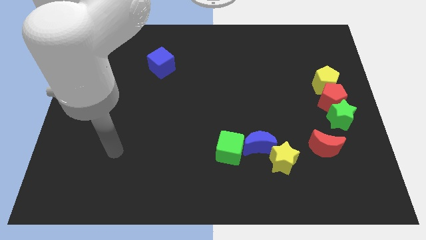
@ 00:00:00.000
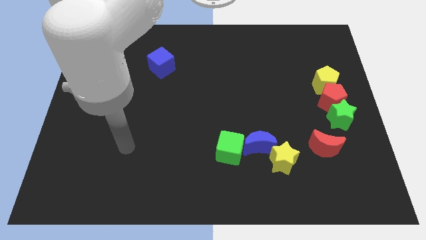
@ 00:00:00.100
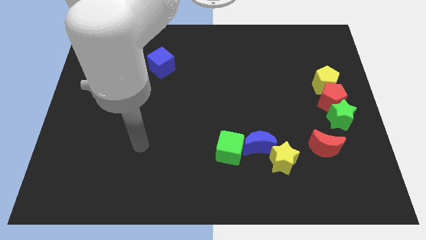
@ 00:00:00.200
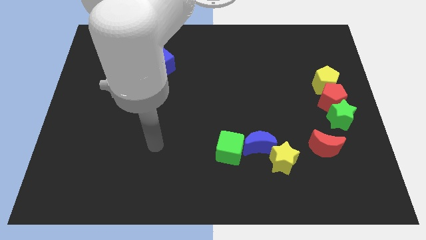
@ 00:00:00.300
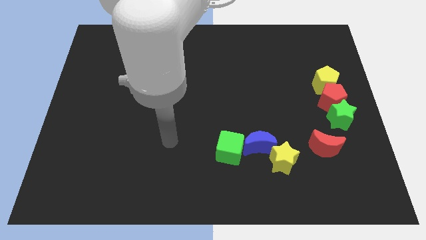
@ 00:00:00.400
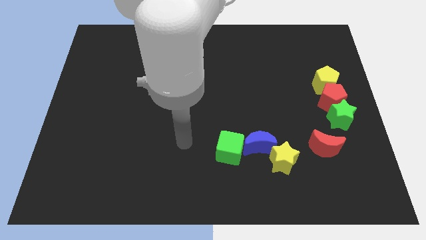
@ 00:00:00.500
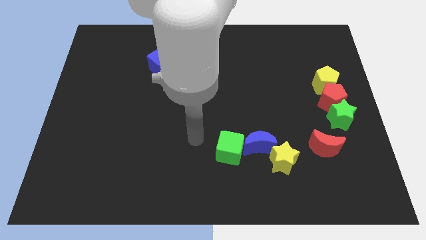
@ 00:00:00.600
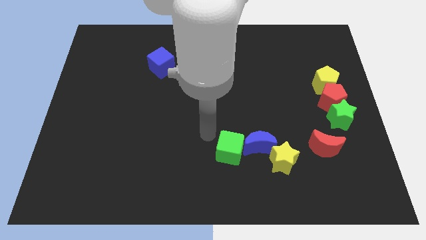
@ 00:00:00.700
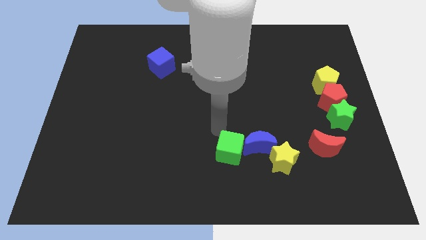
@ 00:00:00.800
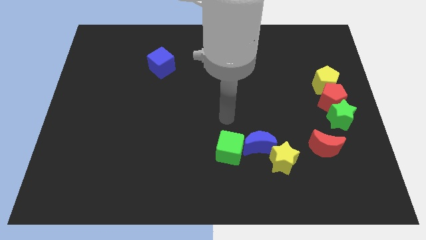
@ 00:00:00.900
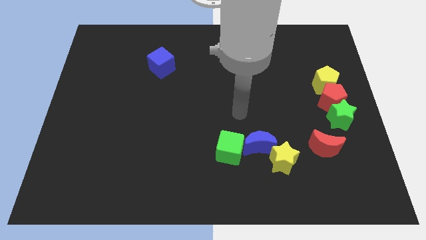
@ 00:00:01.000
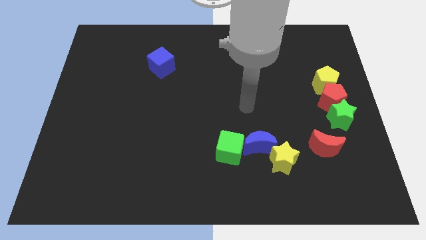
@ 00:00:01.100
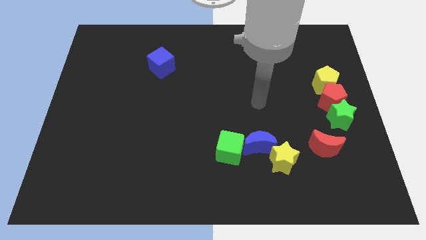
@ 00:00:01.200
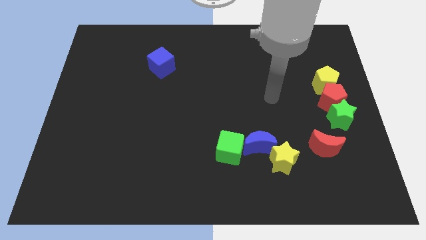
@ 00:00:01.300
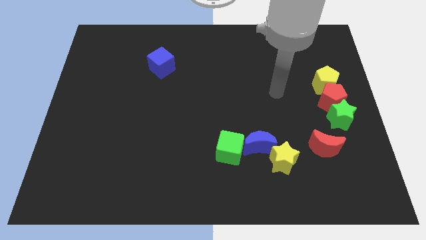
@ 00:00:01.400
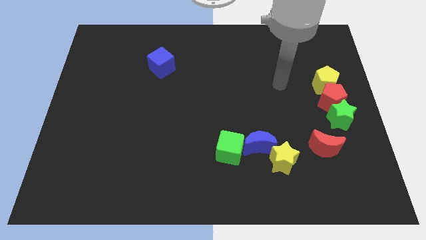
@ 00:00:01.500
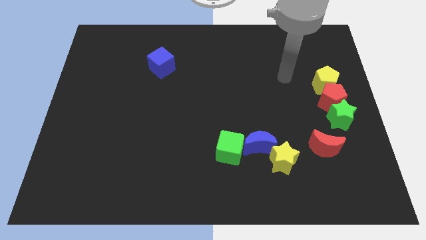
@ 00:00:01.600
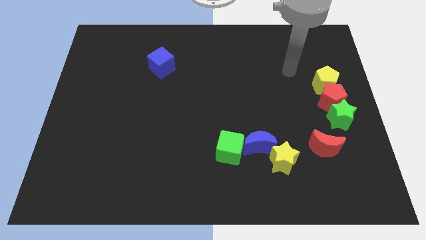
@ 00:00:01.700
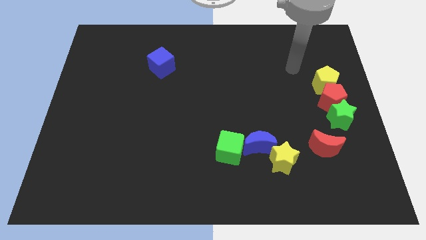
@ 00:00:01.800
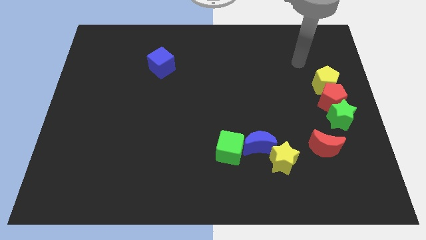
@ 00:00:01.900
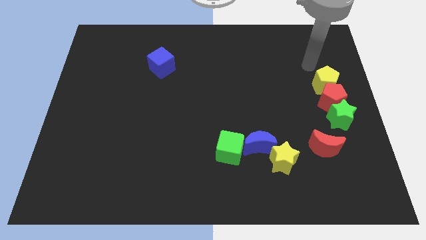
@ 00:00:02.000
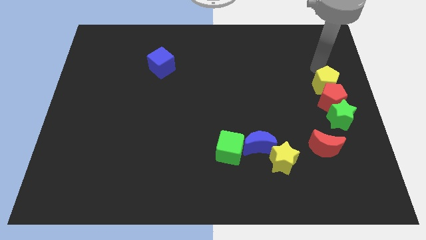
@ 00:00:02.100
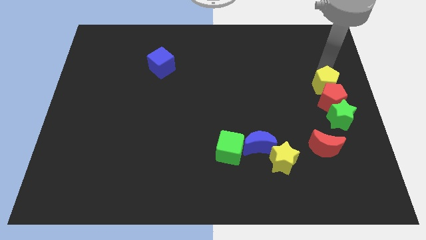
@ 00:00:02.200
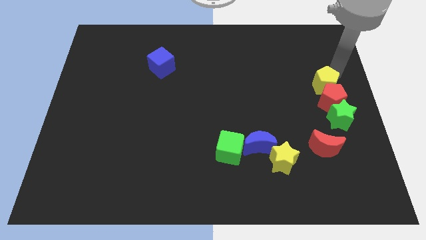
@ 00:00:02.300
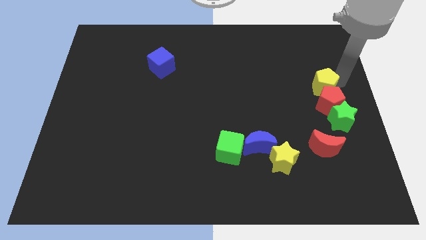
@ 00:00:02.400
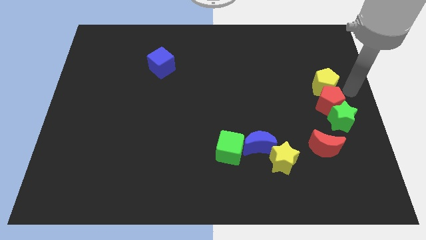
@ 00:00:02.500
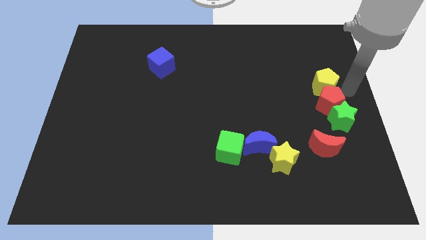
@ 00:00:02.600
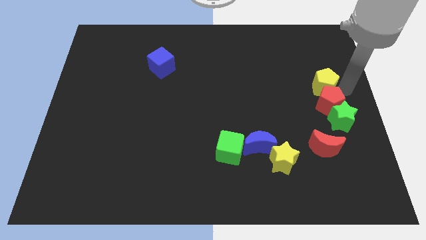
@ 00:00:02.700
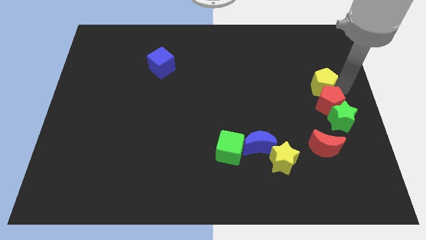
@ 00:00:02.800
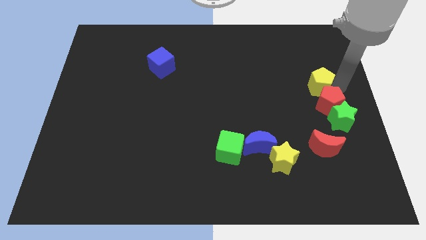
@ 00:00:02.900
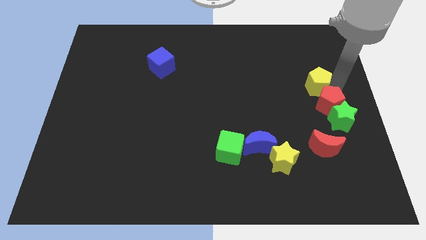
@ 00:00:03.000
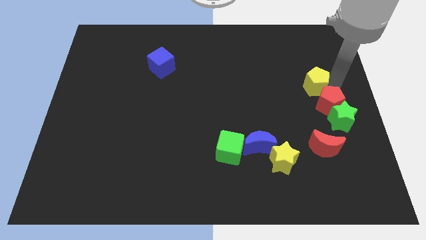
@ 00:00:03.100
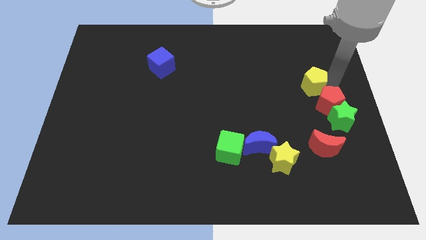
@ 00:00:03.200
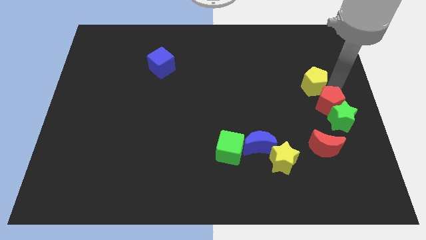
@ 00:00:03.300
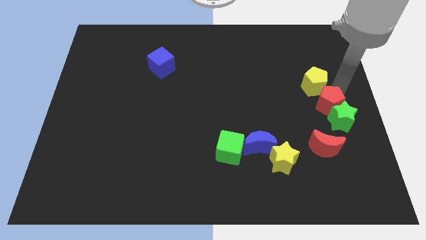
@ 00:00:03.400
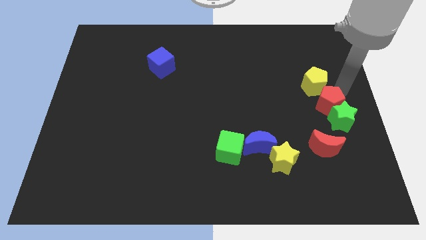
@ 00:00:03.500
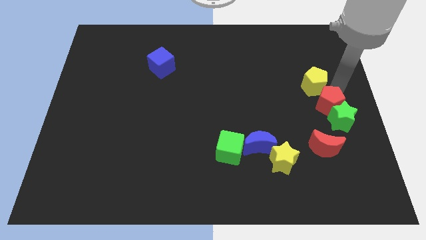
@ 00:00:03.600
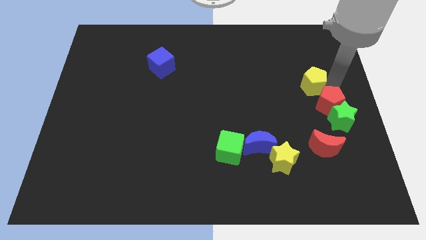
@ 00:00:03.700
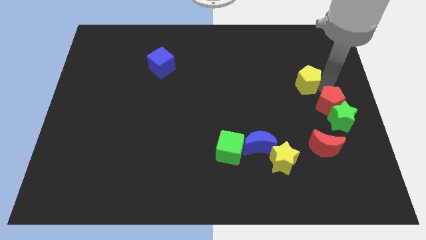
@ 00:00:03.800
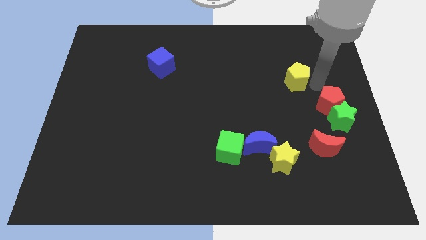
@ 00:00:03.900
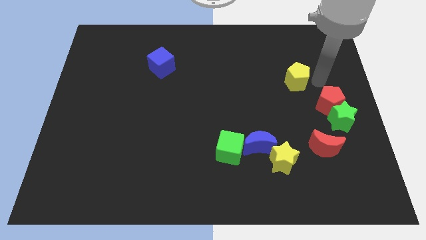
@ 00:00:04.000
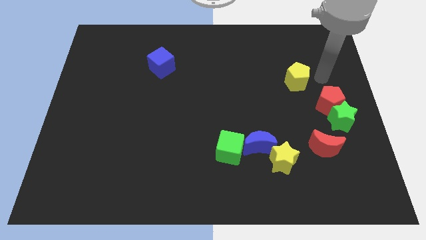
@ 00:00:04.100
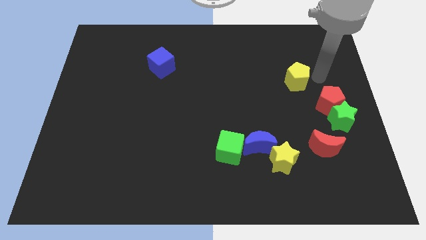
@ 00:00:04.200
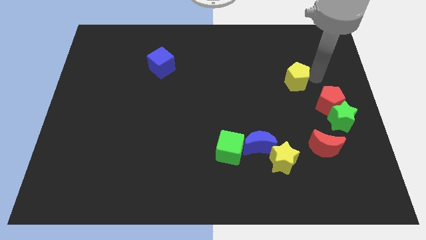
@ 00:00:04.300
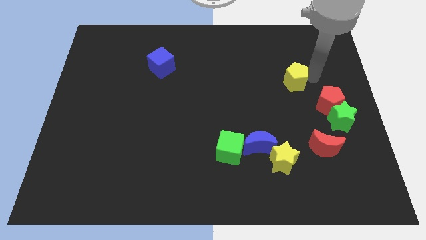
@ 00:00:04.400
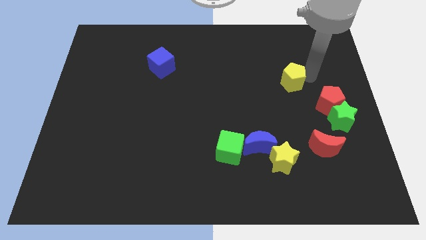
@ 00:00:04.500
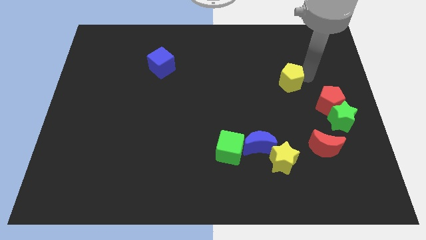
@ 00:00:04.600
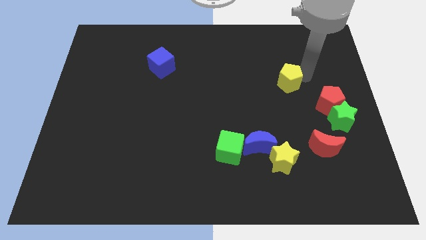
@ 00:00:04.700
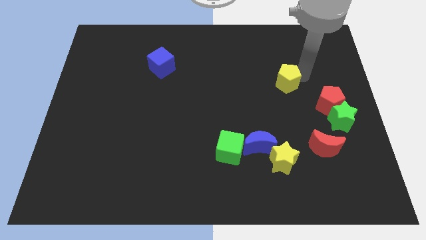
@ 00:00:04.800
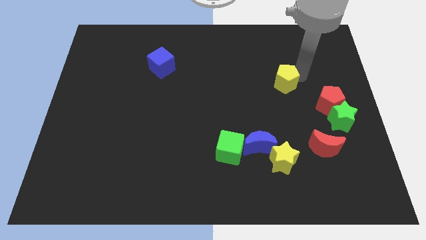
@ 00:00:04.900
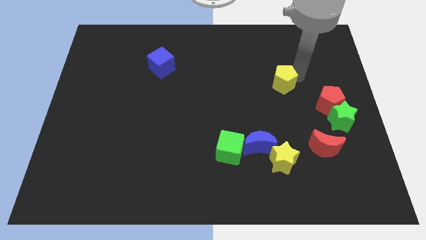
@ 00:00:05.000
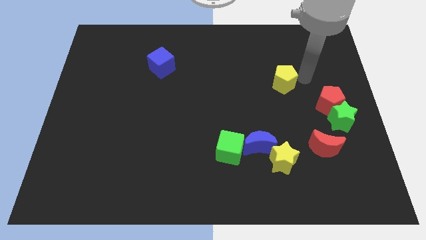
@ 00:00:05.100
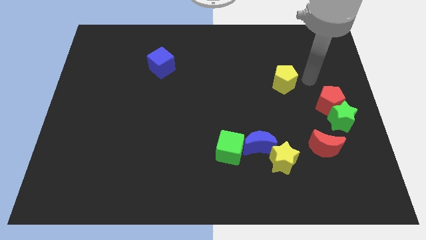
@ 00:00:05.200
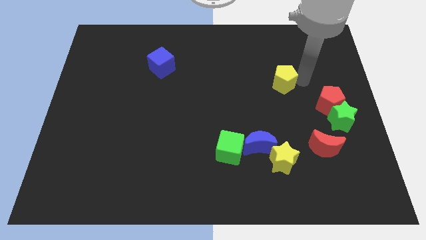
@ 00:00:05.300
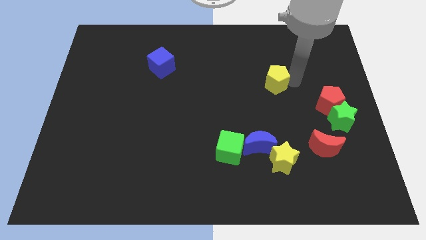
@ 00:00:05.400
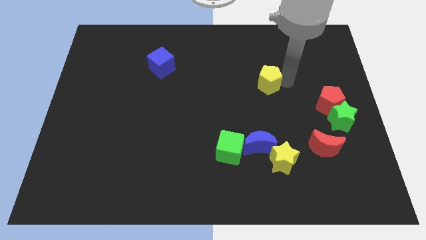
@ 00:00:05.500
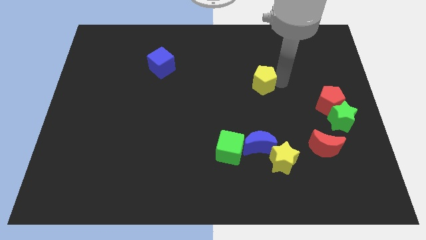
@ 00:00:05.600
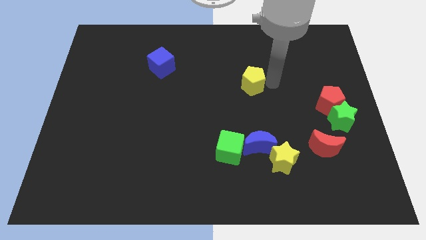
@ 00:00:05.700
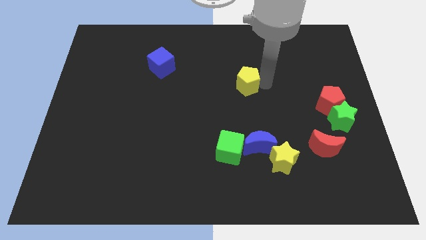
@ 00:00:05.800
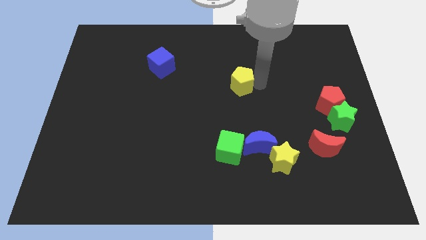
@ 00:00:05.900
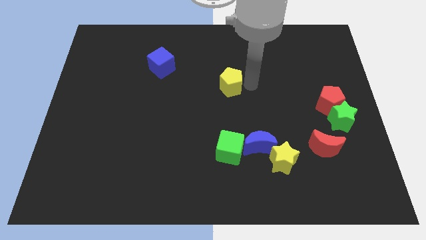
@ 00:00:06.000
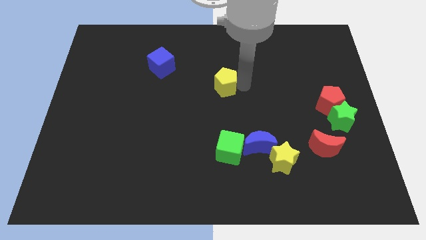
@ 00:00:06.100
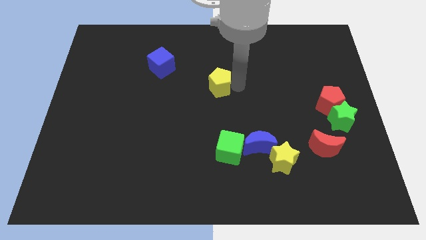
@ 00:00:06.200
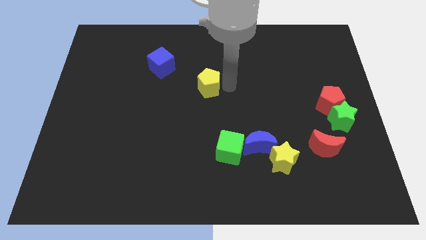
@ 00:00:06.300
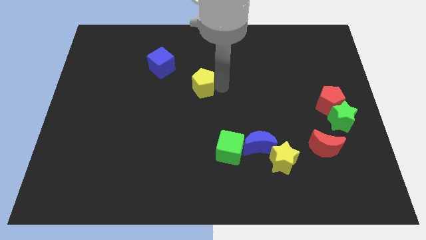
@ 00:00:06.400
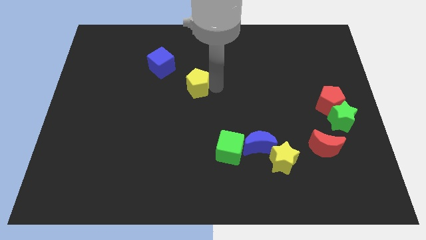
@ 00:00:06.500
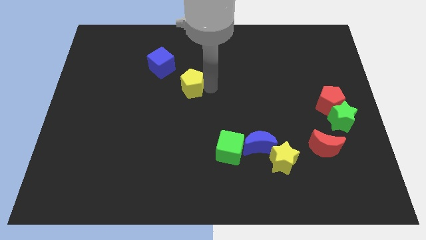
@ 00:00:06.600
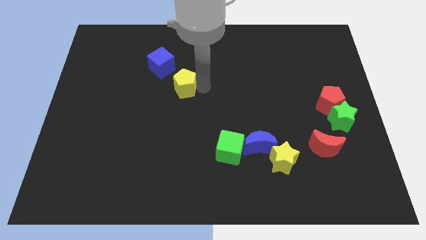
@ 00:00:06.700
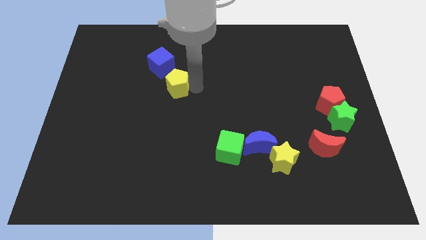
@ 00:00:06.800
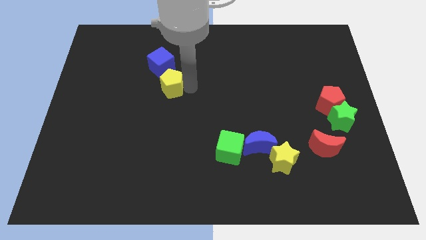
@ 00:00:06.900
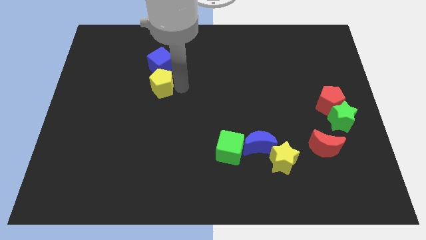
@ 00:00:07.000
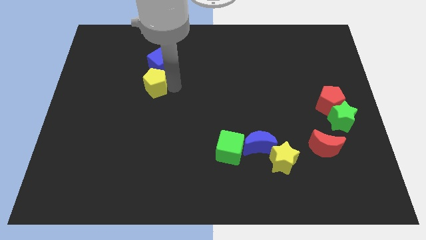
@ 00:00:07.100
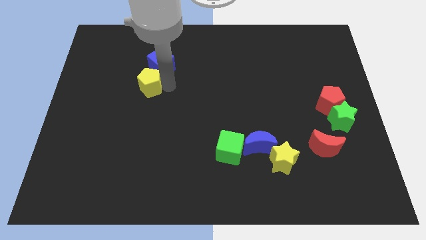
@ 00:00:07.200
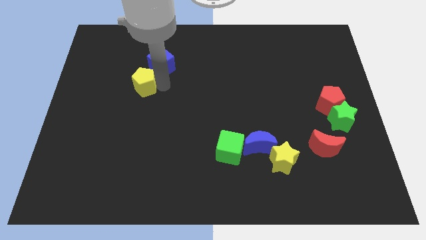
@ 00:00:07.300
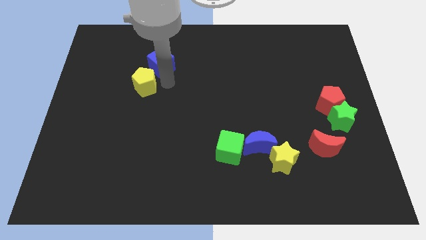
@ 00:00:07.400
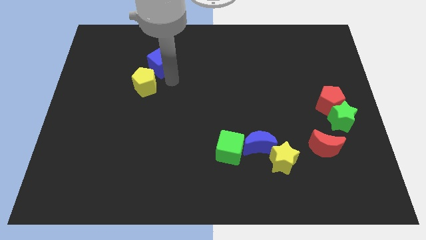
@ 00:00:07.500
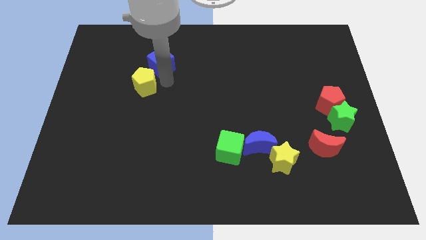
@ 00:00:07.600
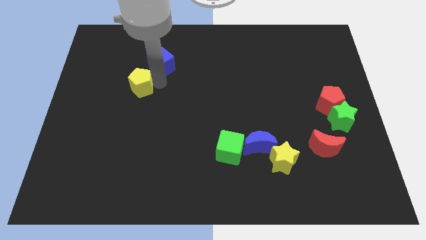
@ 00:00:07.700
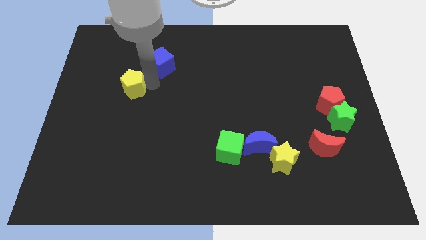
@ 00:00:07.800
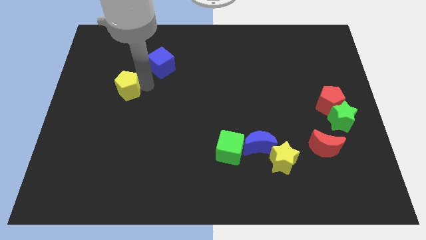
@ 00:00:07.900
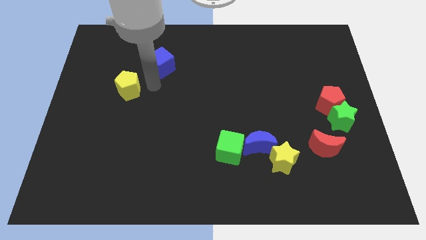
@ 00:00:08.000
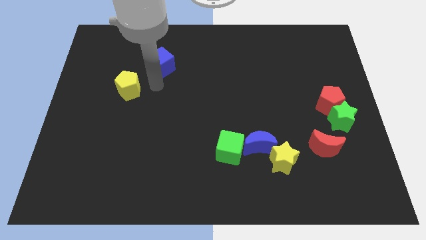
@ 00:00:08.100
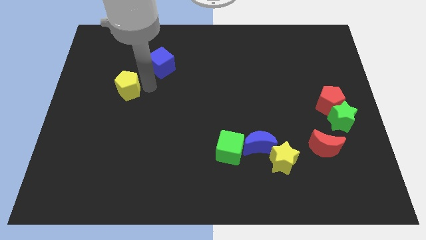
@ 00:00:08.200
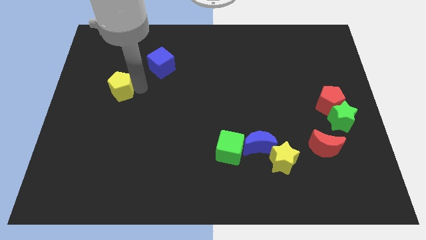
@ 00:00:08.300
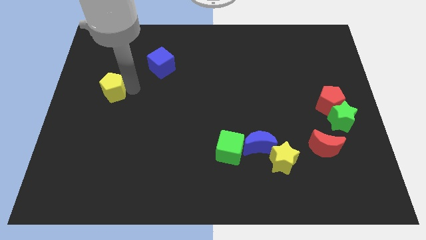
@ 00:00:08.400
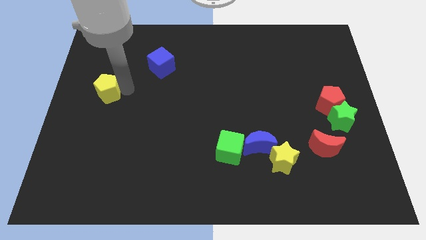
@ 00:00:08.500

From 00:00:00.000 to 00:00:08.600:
push the yellow pentagon to the left side
